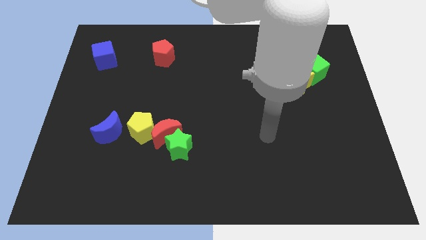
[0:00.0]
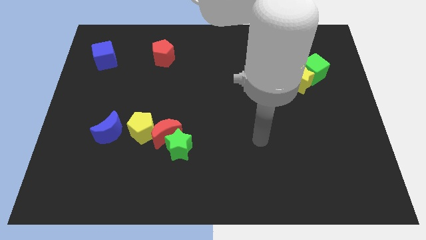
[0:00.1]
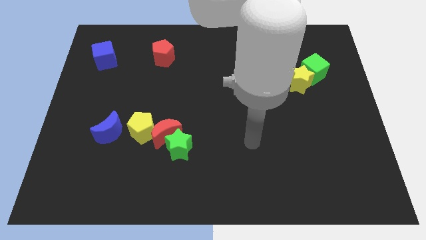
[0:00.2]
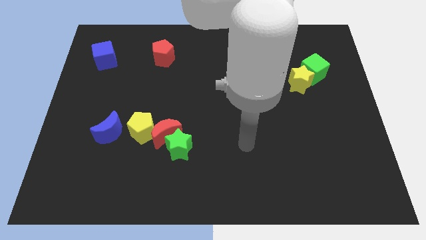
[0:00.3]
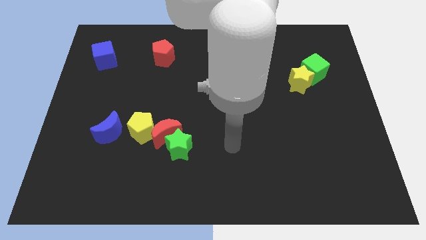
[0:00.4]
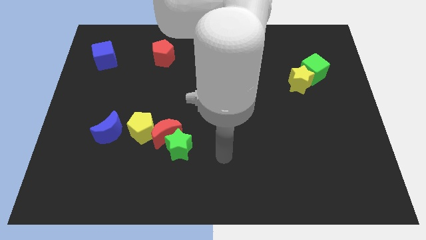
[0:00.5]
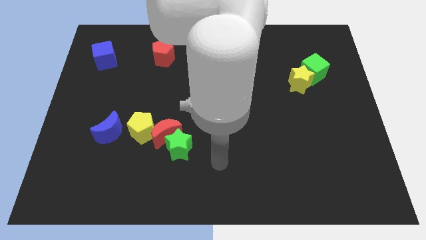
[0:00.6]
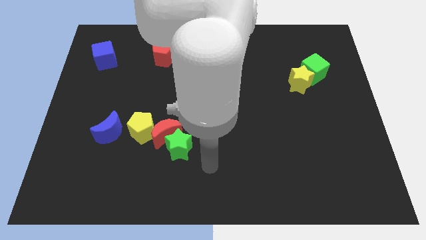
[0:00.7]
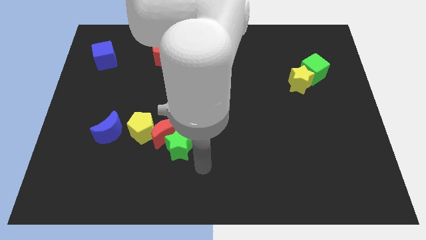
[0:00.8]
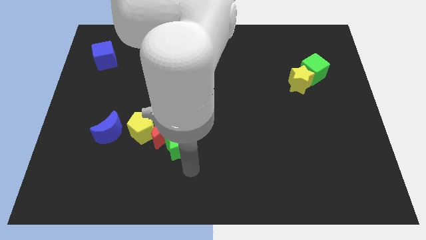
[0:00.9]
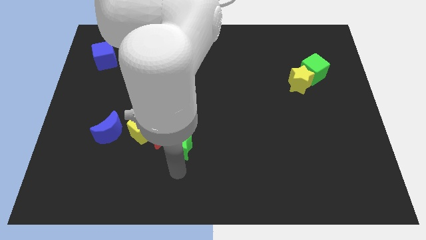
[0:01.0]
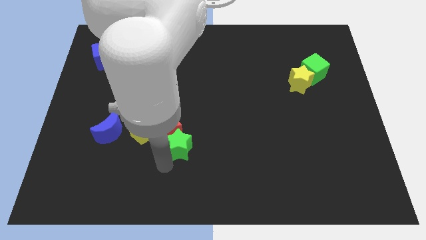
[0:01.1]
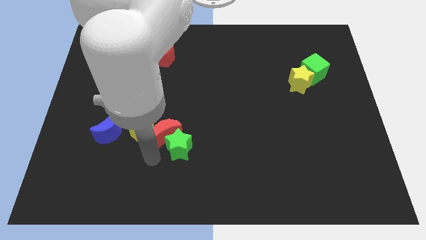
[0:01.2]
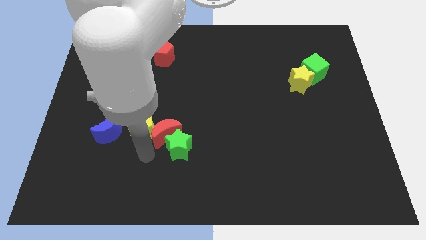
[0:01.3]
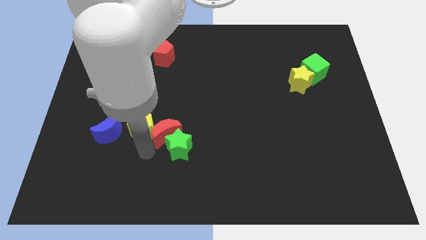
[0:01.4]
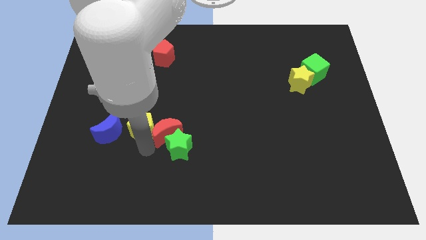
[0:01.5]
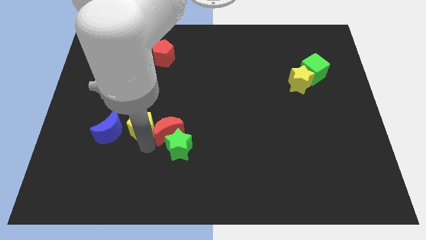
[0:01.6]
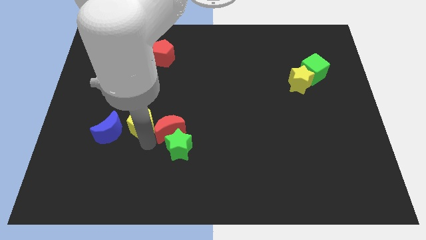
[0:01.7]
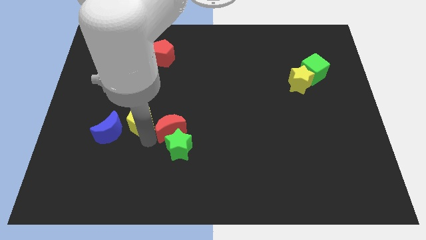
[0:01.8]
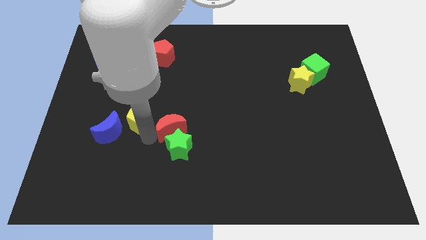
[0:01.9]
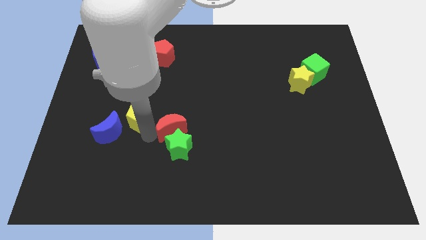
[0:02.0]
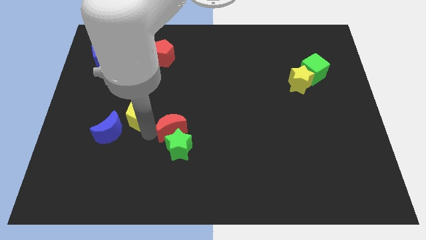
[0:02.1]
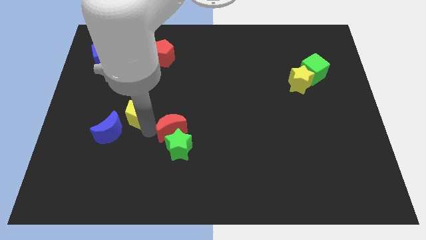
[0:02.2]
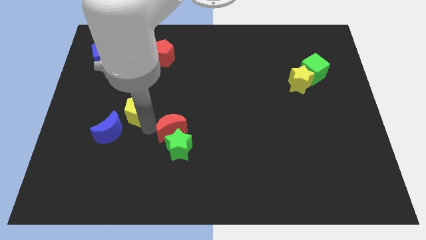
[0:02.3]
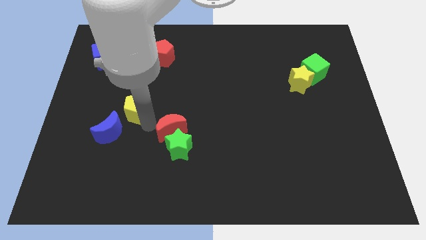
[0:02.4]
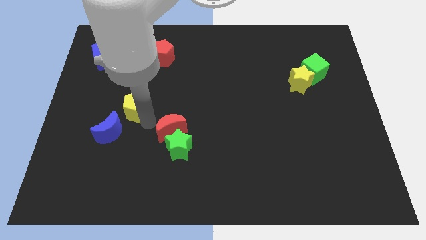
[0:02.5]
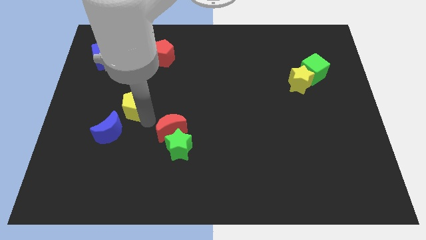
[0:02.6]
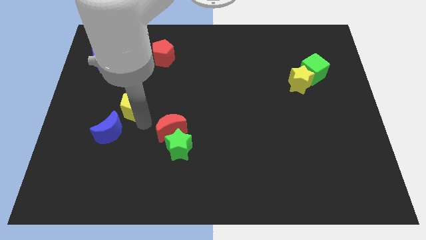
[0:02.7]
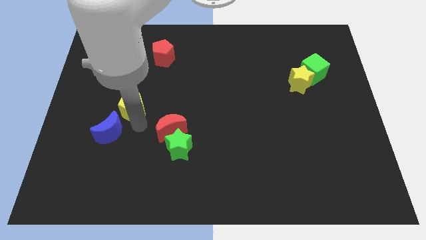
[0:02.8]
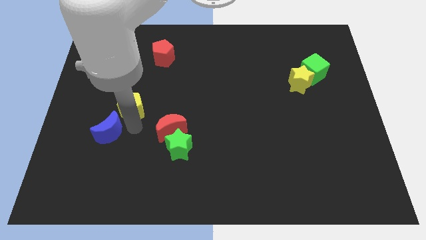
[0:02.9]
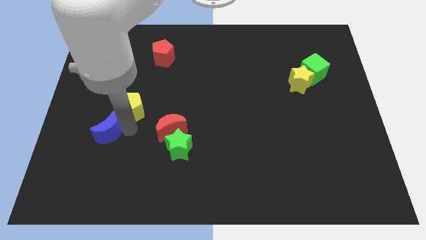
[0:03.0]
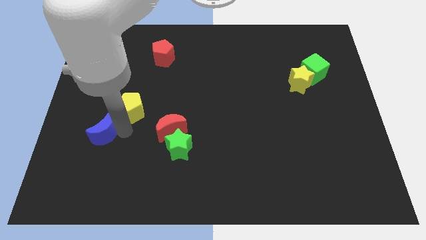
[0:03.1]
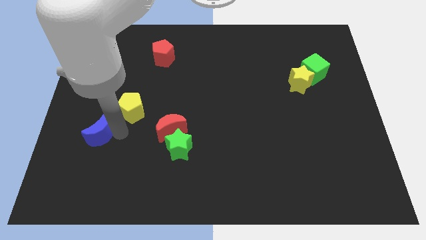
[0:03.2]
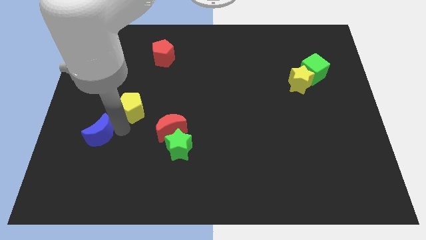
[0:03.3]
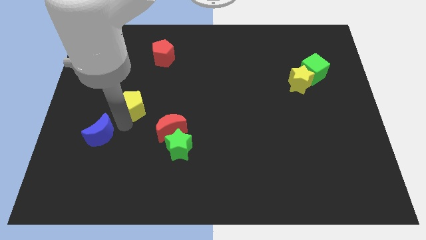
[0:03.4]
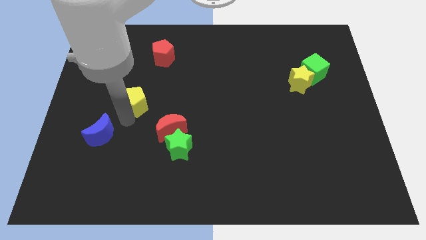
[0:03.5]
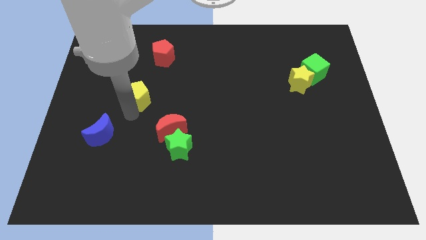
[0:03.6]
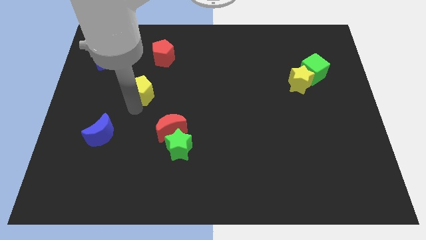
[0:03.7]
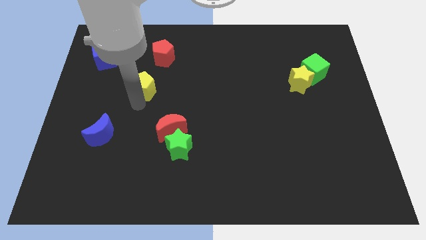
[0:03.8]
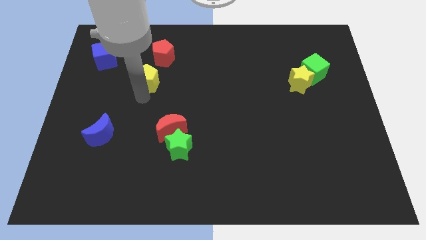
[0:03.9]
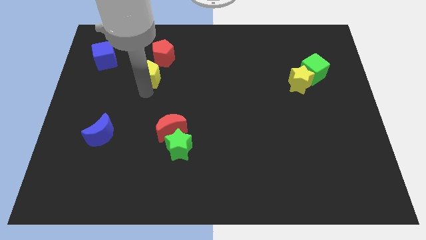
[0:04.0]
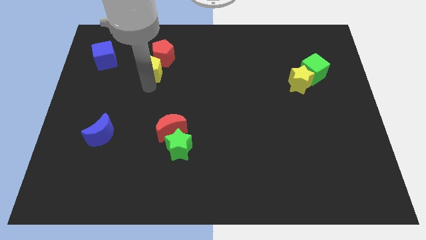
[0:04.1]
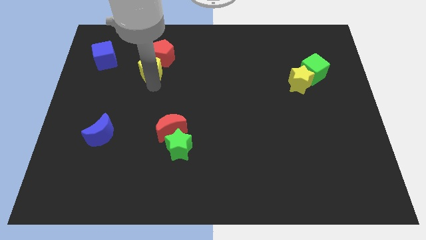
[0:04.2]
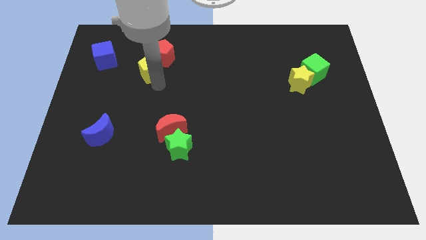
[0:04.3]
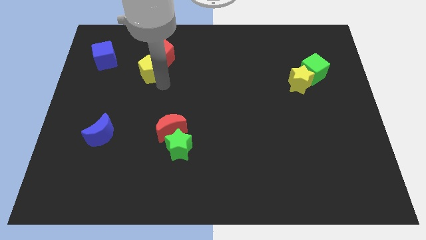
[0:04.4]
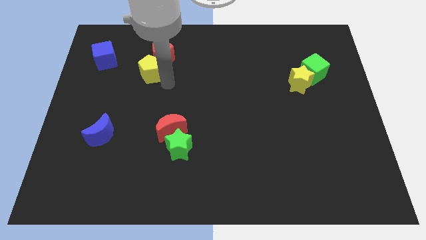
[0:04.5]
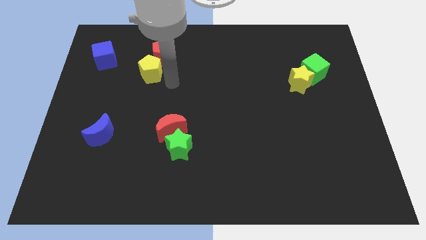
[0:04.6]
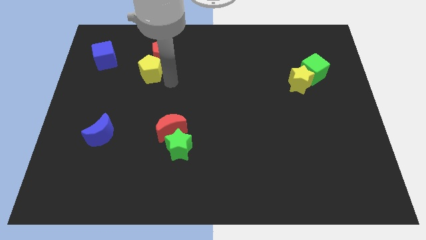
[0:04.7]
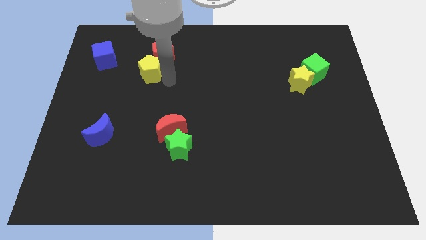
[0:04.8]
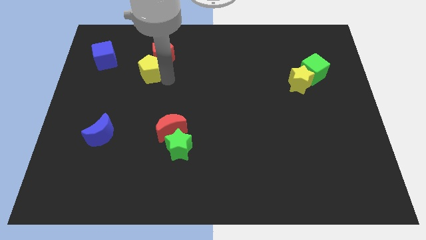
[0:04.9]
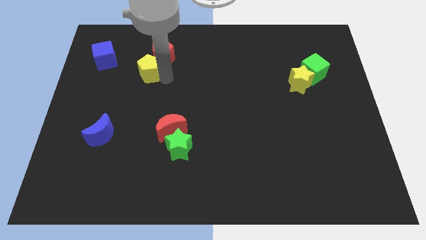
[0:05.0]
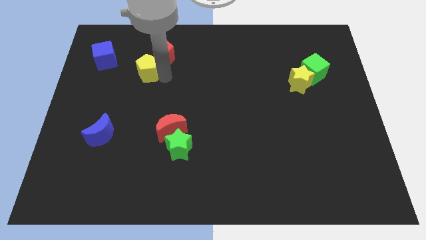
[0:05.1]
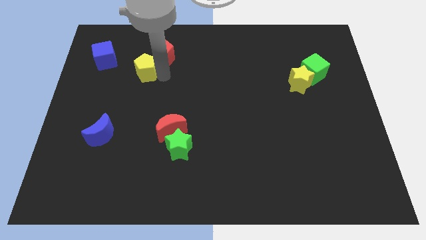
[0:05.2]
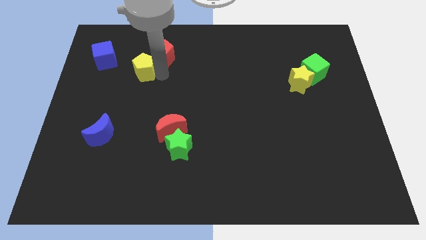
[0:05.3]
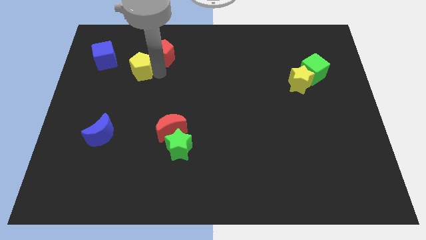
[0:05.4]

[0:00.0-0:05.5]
slide the yellow pentagon just left of the red pentagon

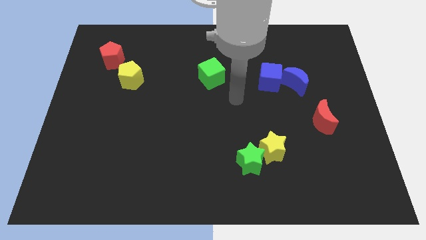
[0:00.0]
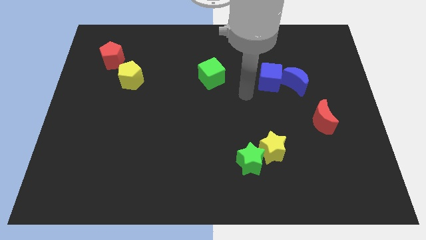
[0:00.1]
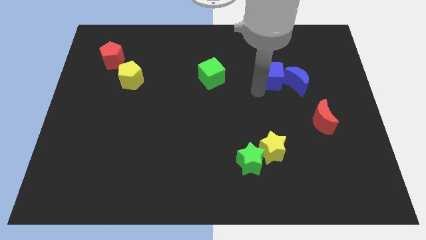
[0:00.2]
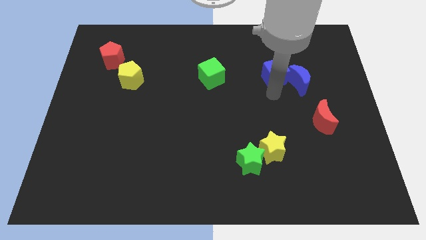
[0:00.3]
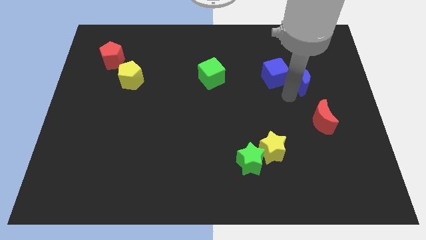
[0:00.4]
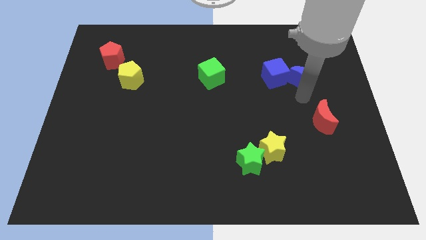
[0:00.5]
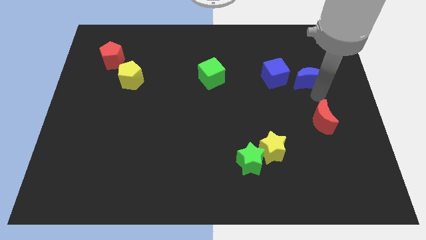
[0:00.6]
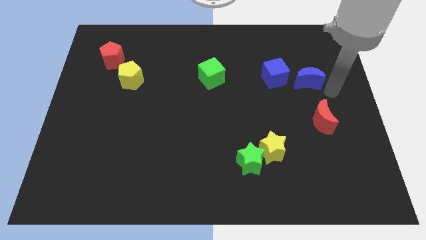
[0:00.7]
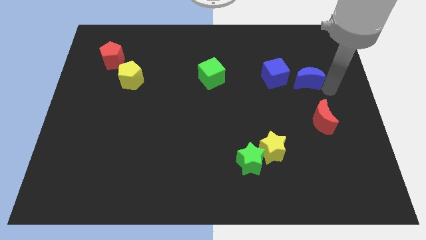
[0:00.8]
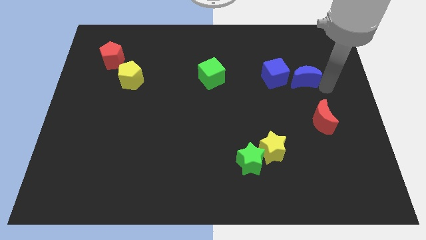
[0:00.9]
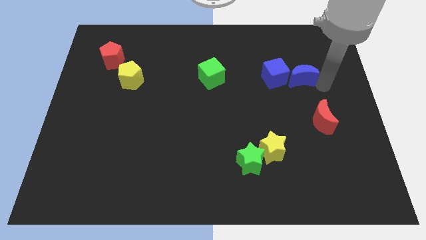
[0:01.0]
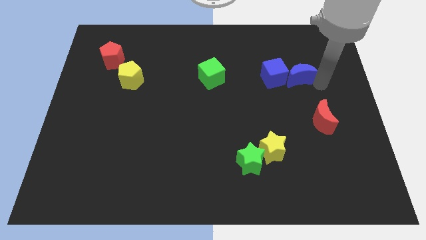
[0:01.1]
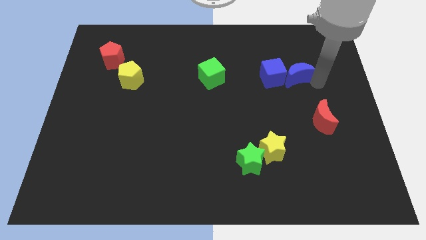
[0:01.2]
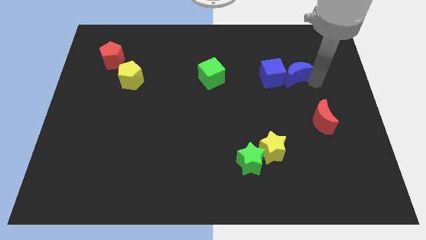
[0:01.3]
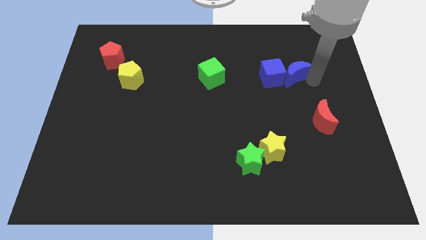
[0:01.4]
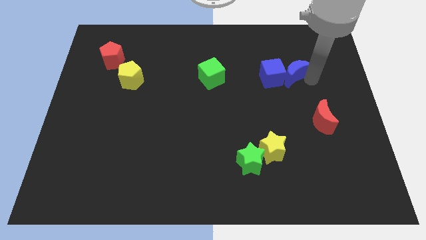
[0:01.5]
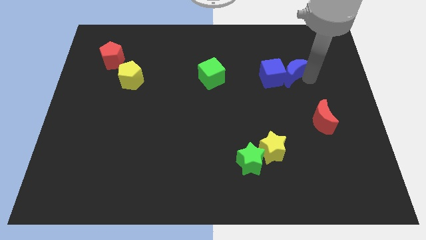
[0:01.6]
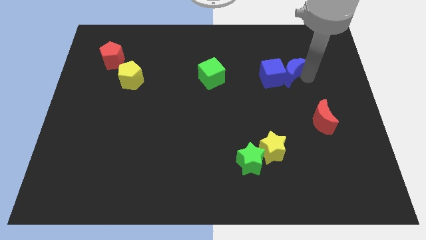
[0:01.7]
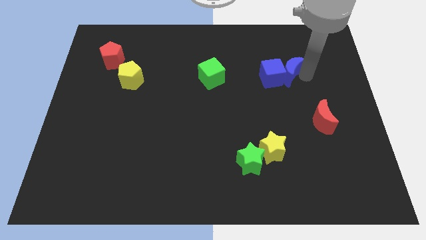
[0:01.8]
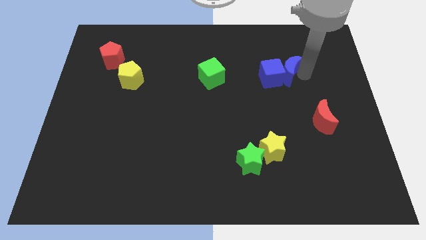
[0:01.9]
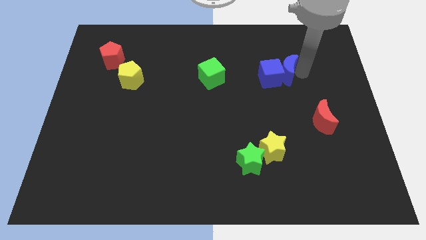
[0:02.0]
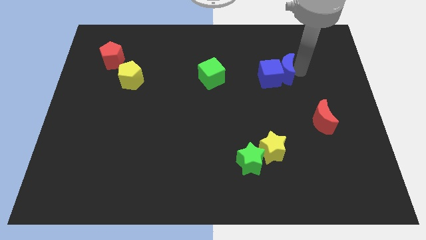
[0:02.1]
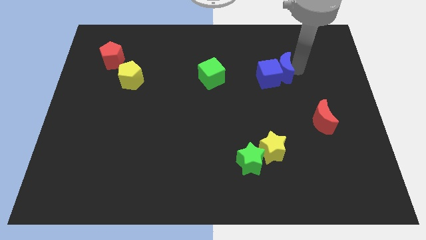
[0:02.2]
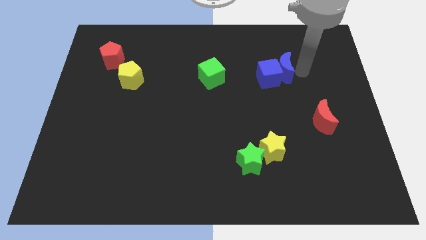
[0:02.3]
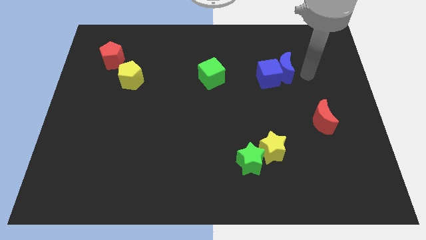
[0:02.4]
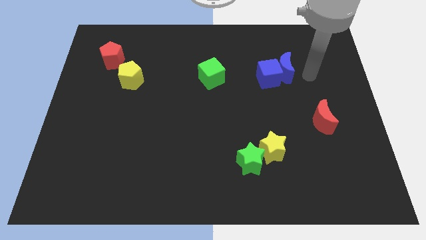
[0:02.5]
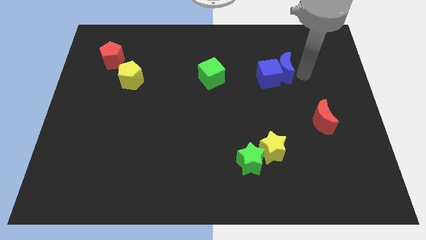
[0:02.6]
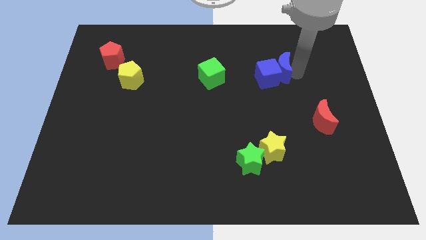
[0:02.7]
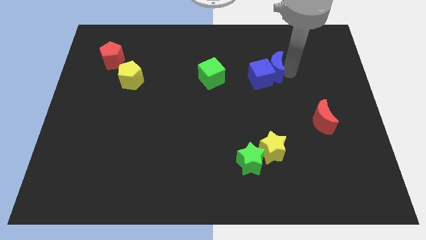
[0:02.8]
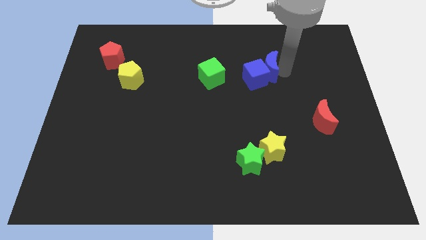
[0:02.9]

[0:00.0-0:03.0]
move the blue moon just right of the green cube
